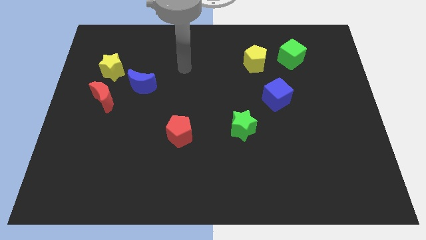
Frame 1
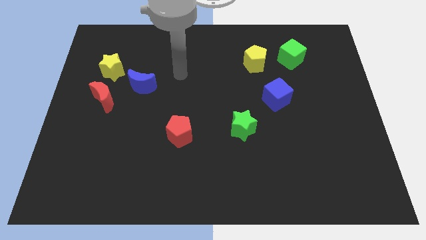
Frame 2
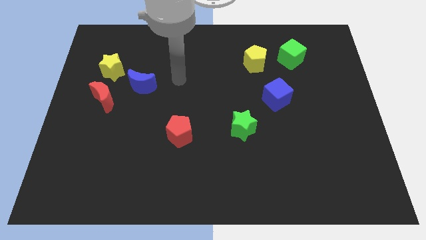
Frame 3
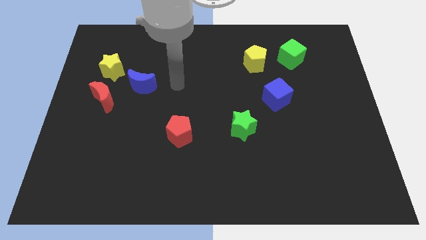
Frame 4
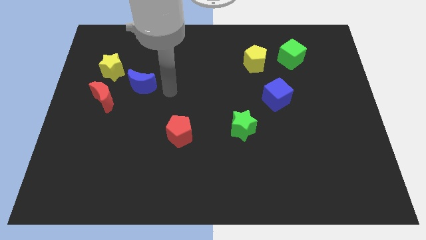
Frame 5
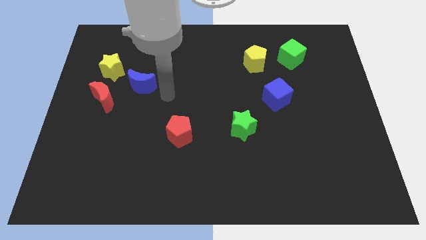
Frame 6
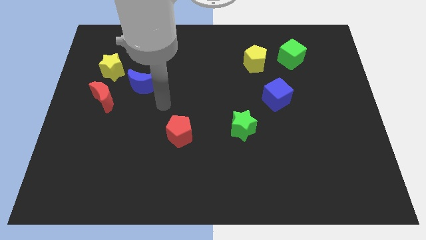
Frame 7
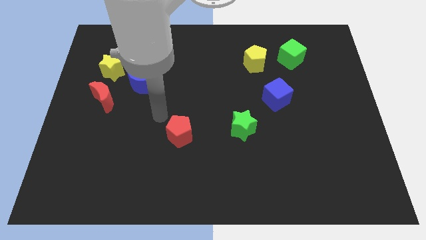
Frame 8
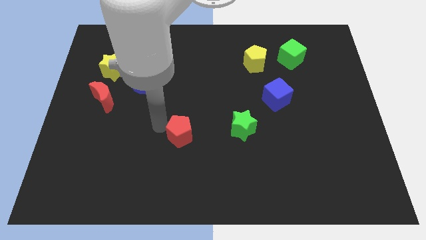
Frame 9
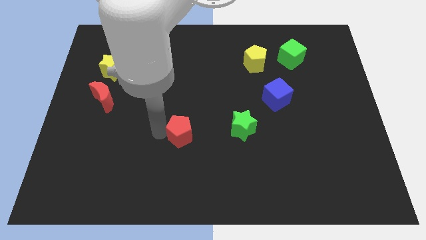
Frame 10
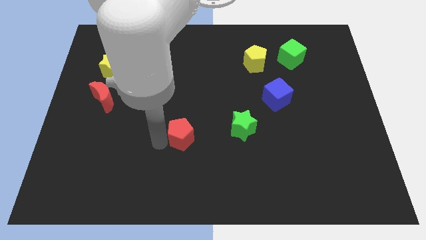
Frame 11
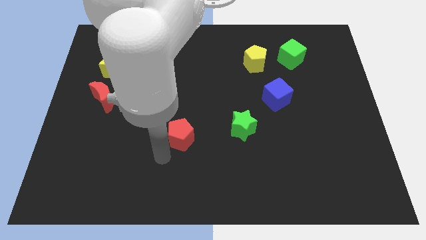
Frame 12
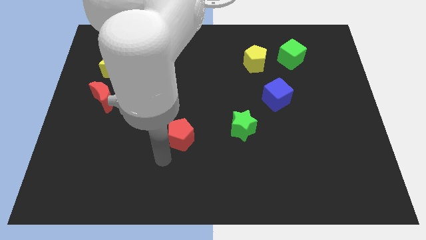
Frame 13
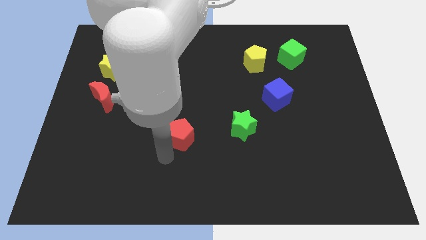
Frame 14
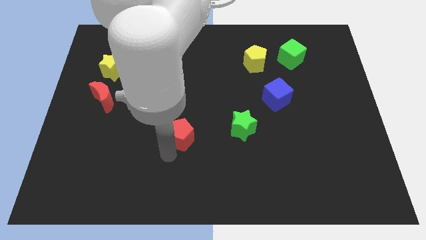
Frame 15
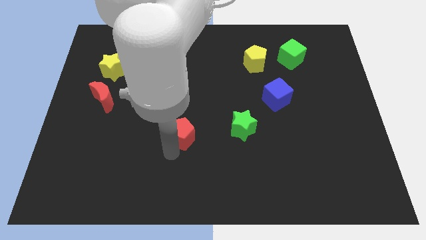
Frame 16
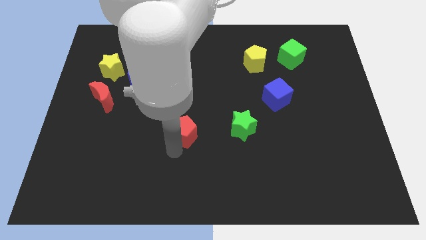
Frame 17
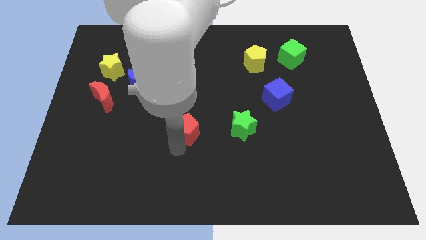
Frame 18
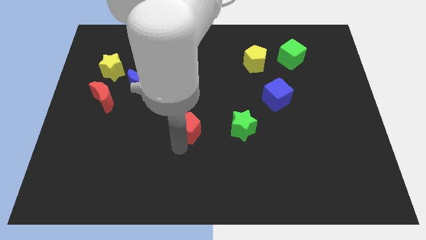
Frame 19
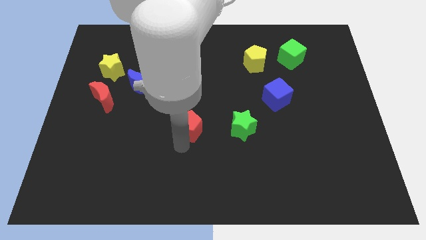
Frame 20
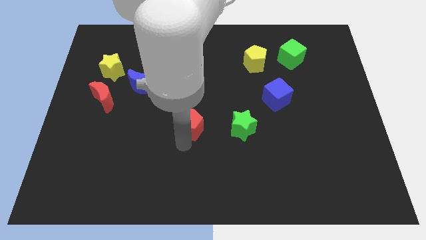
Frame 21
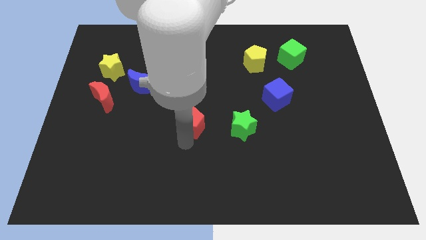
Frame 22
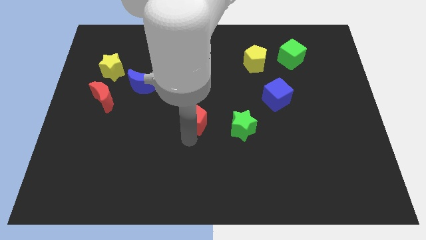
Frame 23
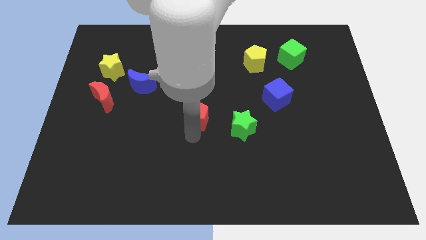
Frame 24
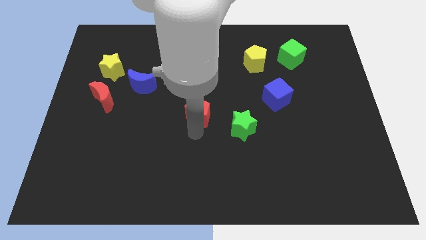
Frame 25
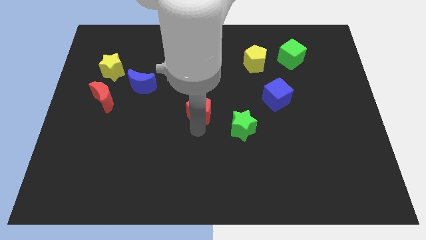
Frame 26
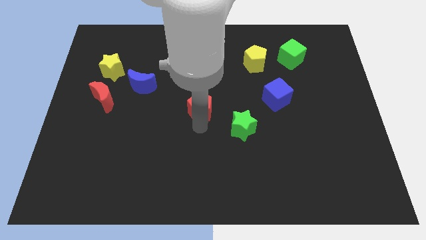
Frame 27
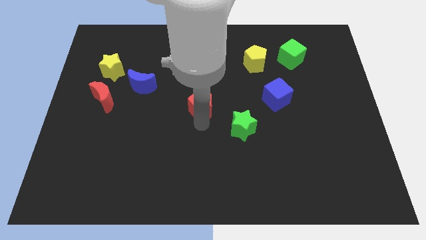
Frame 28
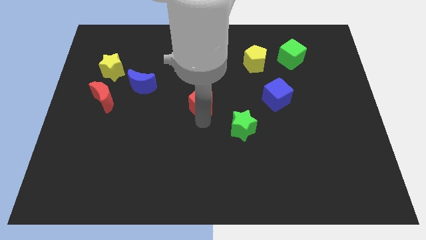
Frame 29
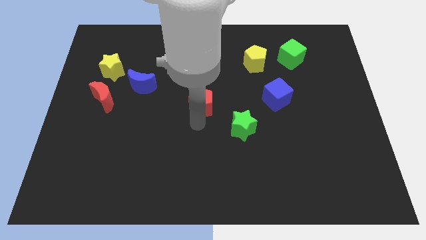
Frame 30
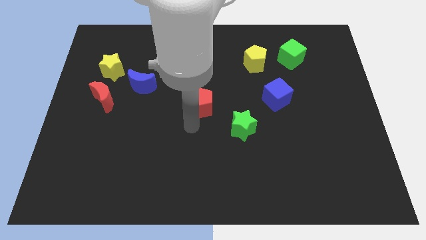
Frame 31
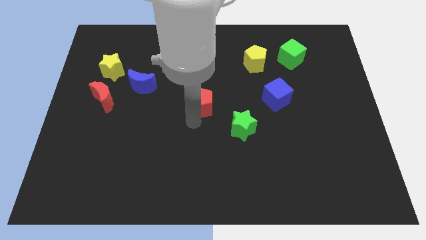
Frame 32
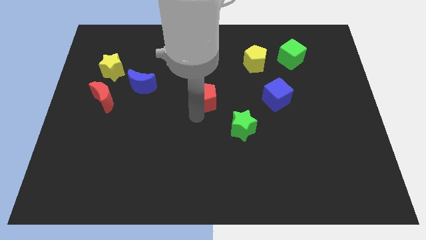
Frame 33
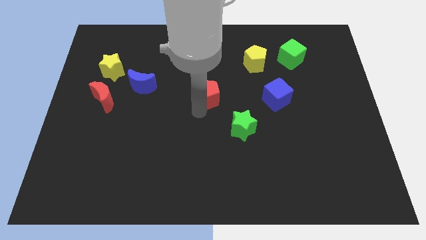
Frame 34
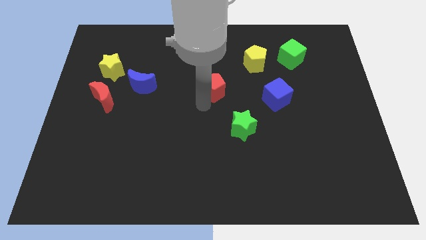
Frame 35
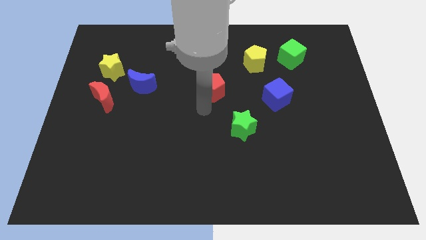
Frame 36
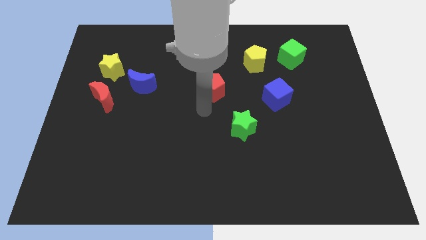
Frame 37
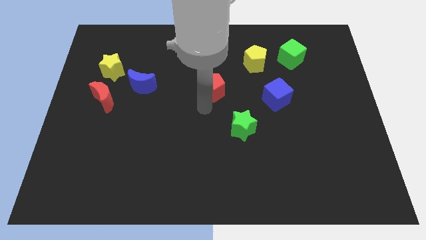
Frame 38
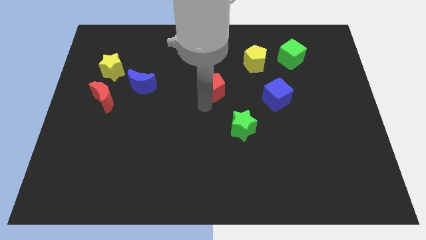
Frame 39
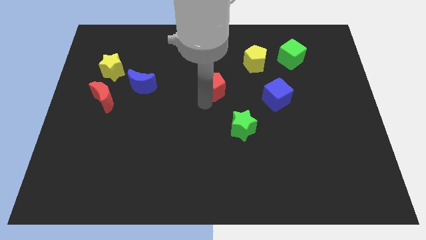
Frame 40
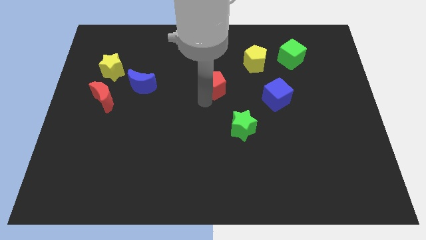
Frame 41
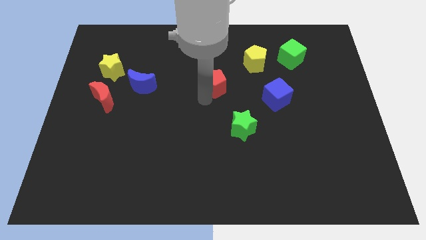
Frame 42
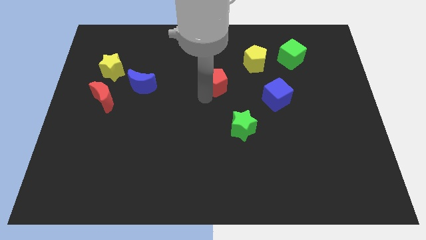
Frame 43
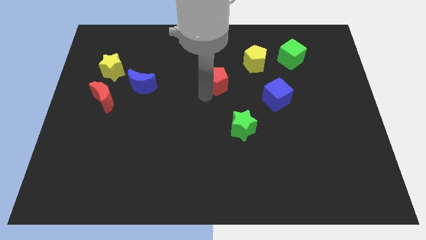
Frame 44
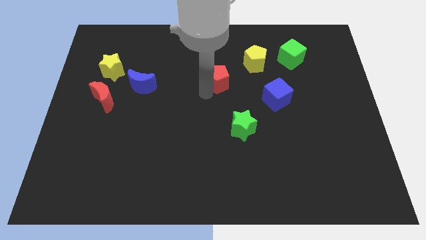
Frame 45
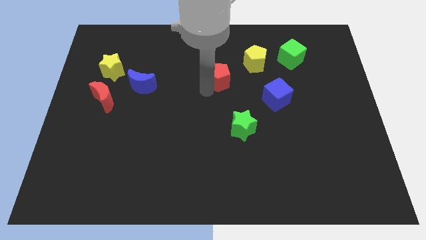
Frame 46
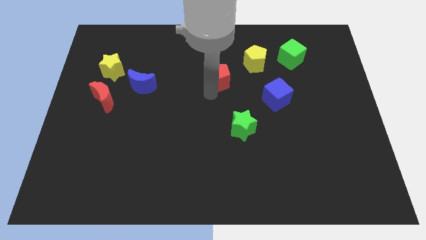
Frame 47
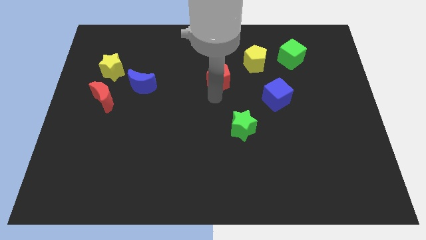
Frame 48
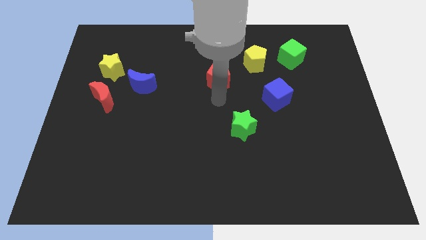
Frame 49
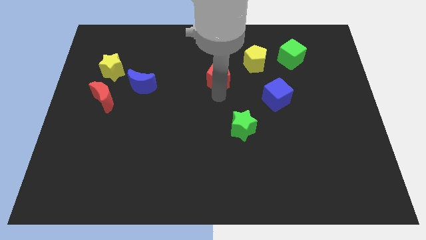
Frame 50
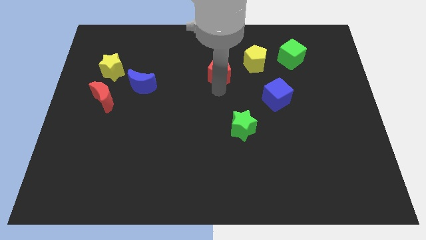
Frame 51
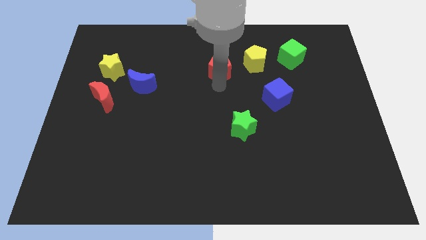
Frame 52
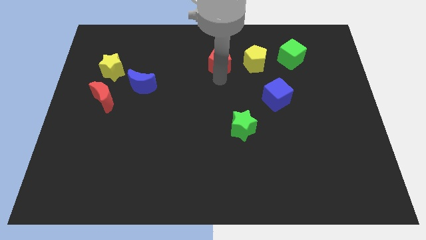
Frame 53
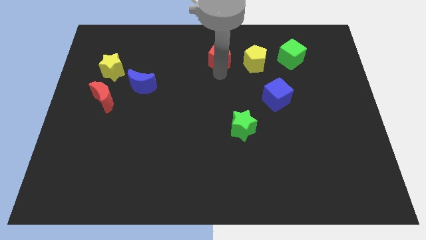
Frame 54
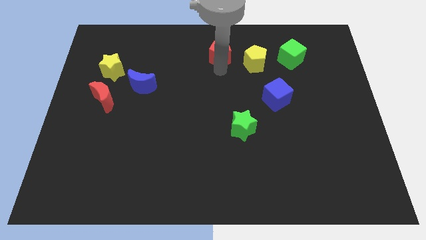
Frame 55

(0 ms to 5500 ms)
slide the red pentagon to the top side

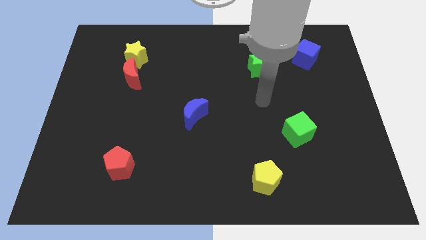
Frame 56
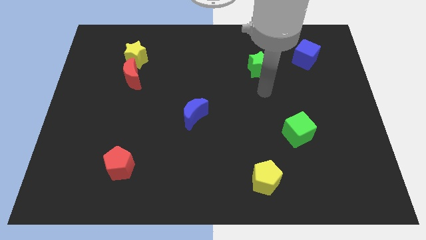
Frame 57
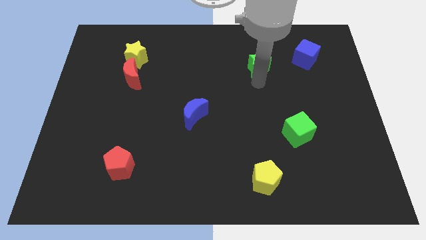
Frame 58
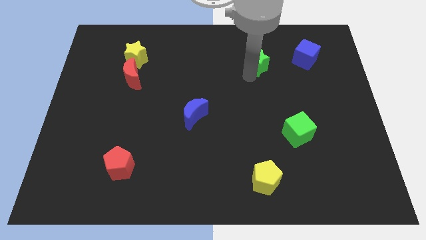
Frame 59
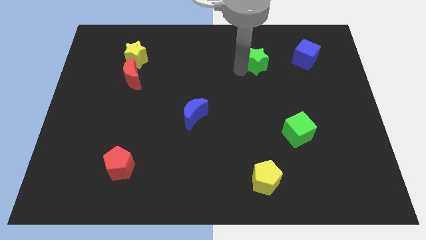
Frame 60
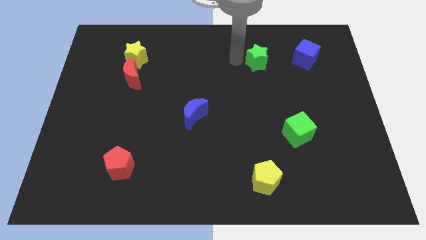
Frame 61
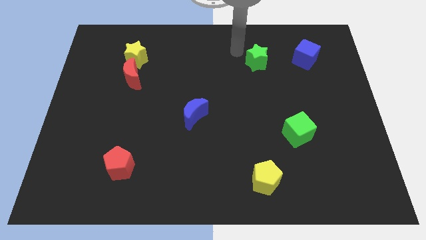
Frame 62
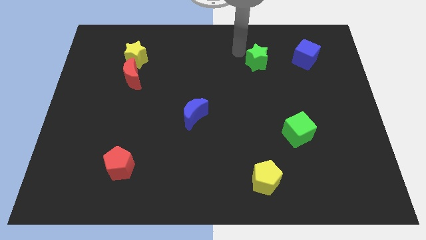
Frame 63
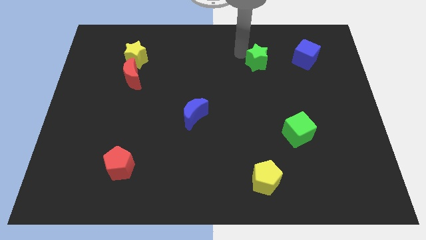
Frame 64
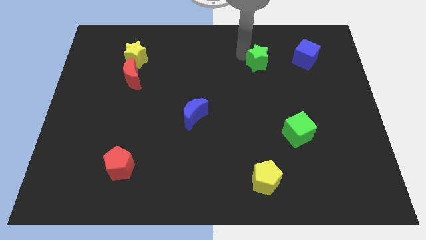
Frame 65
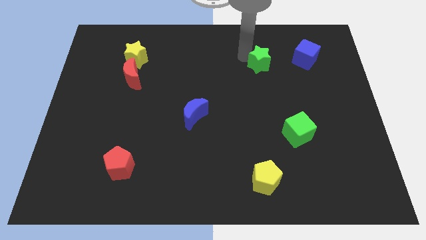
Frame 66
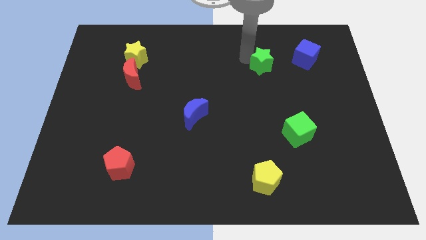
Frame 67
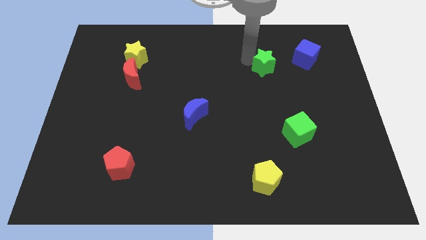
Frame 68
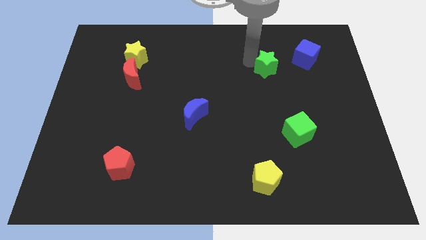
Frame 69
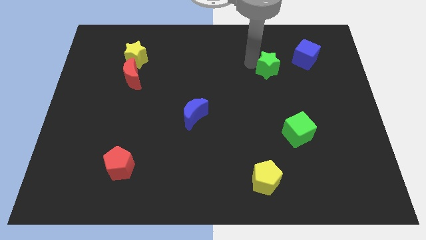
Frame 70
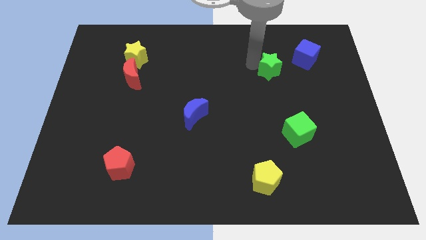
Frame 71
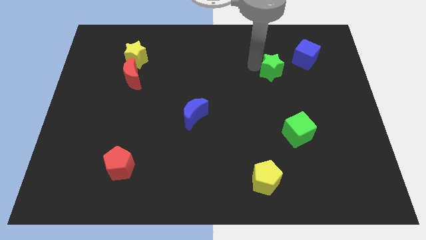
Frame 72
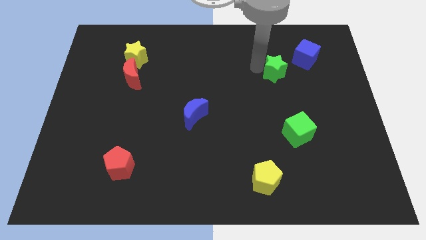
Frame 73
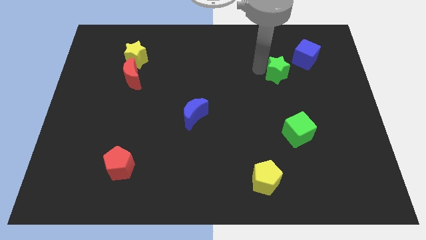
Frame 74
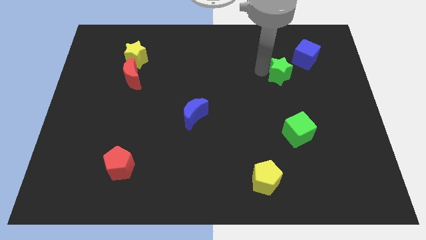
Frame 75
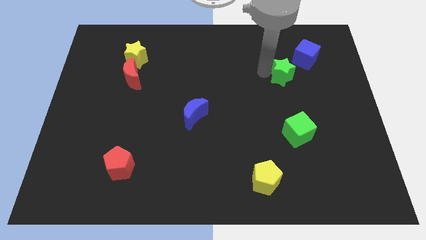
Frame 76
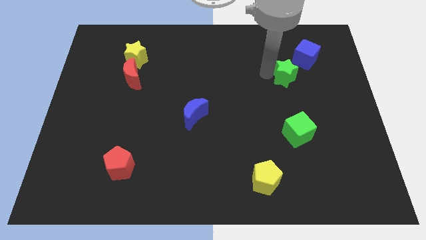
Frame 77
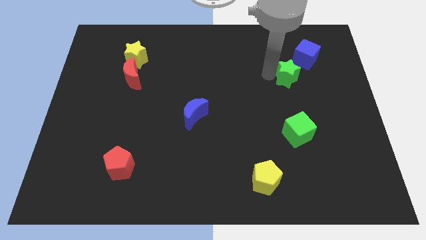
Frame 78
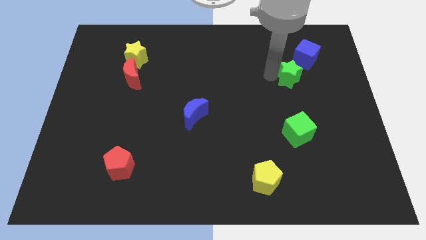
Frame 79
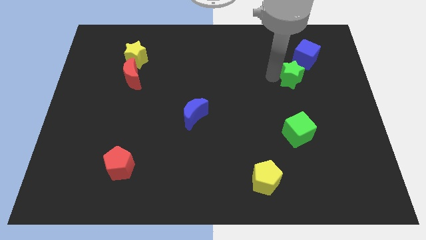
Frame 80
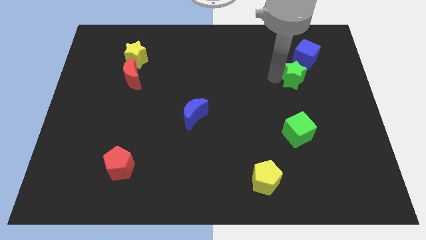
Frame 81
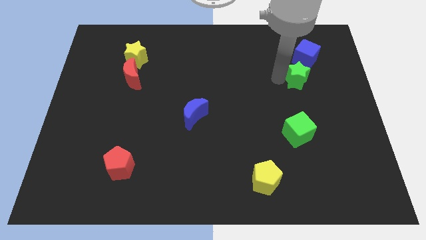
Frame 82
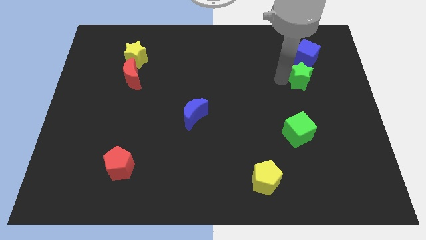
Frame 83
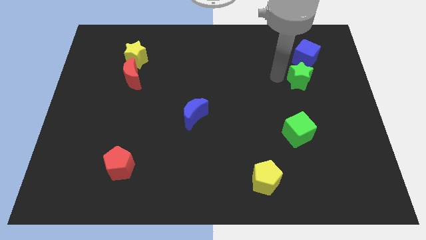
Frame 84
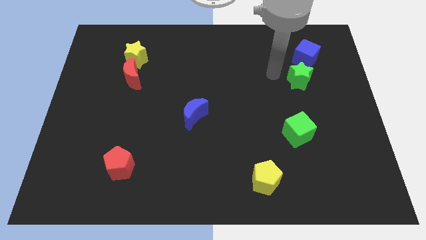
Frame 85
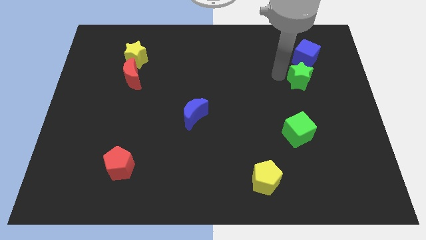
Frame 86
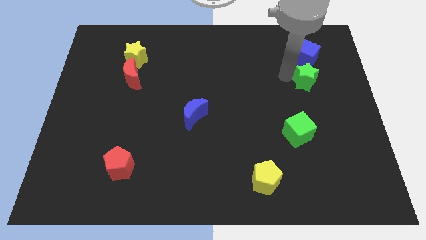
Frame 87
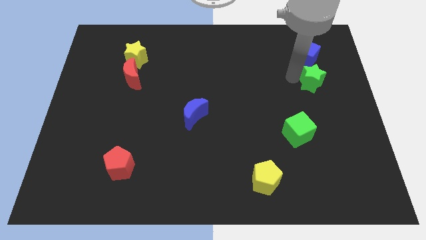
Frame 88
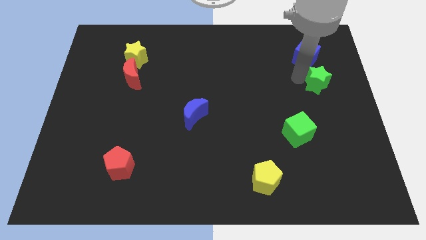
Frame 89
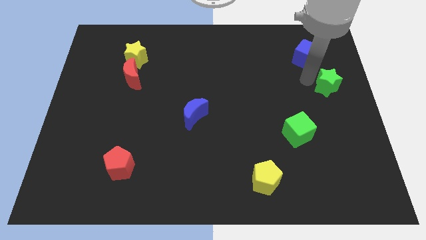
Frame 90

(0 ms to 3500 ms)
push the green star to the right side of the board
